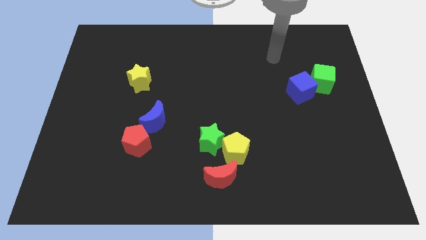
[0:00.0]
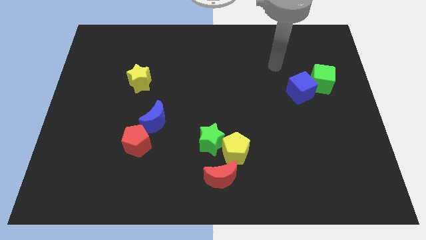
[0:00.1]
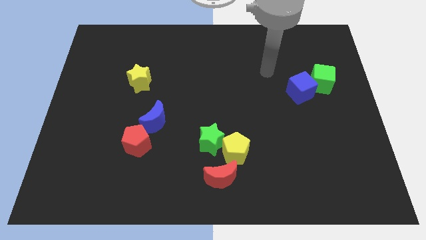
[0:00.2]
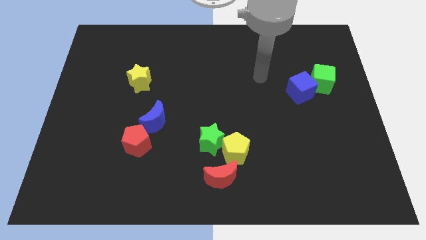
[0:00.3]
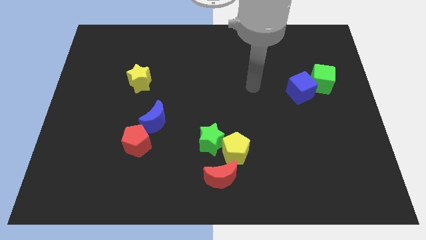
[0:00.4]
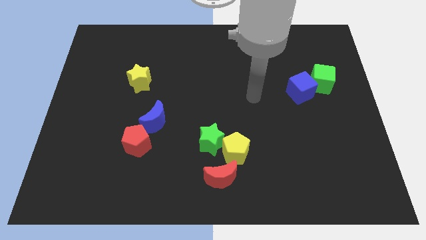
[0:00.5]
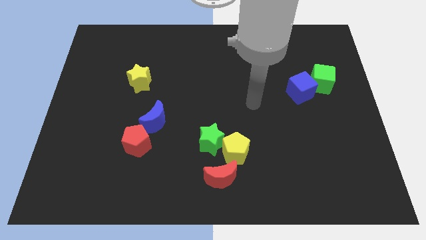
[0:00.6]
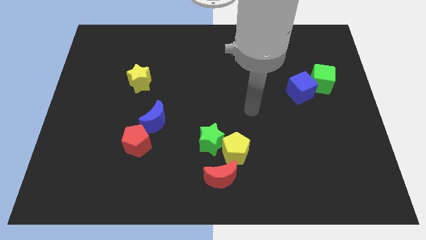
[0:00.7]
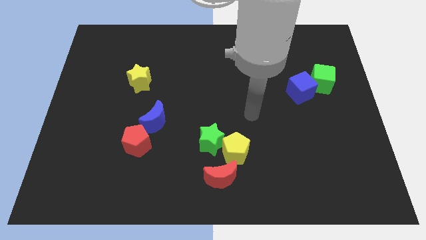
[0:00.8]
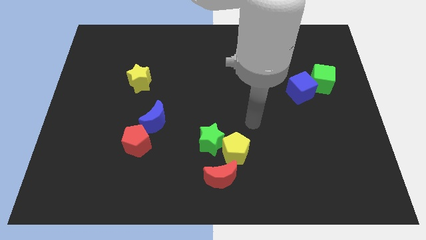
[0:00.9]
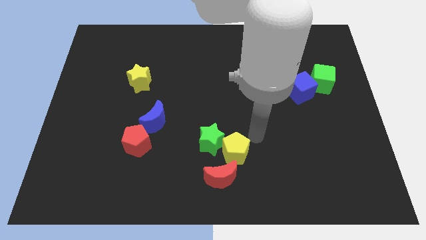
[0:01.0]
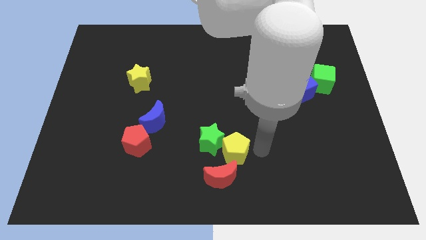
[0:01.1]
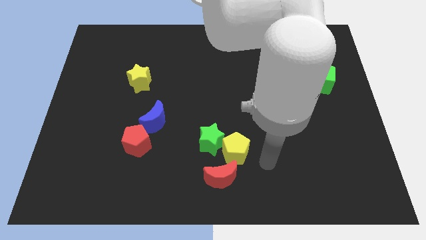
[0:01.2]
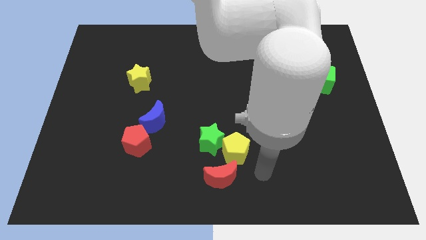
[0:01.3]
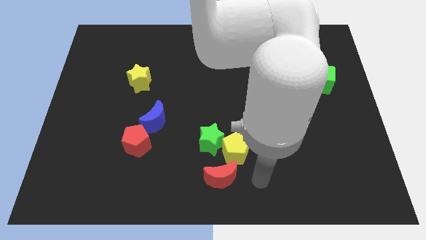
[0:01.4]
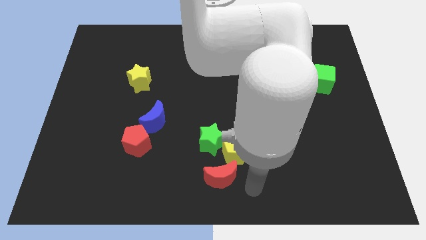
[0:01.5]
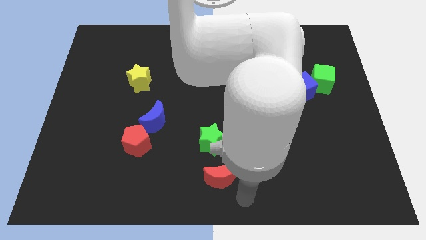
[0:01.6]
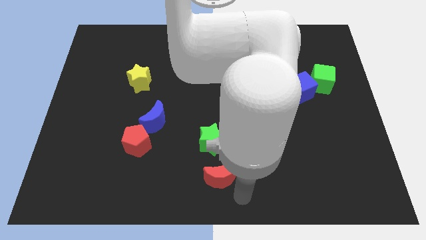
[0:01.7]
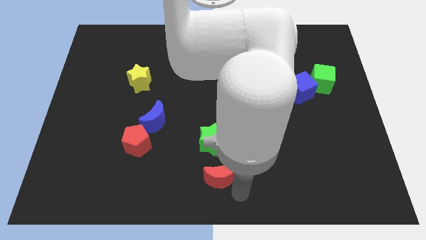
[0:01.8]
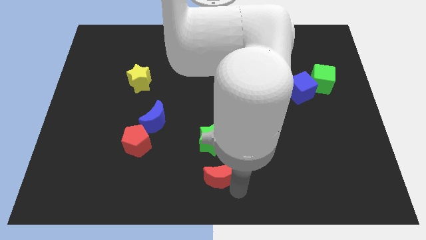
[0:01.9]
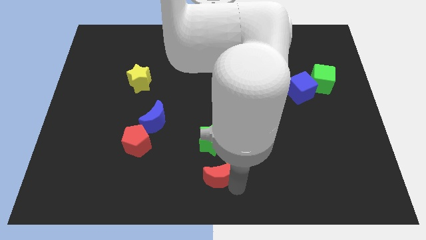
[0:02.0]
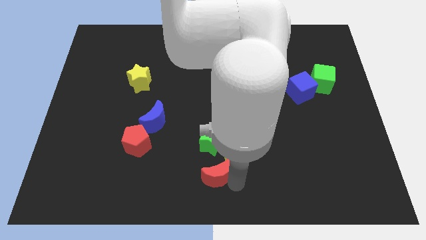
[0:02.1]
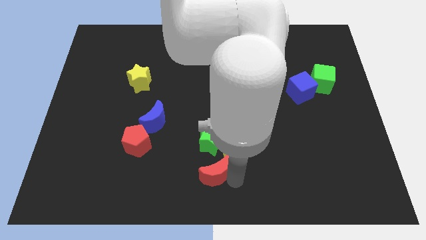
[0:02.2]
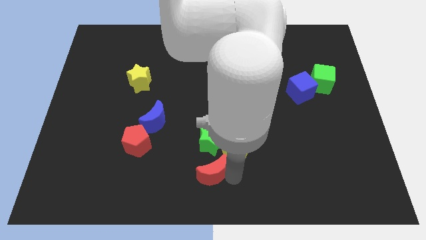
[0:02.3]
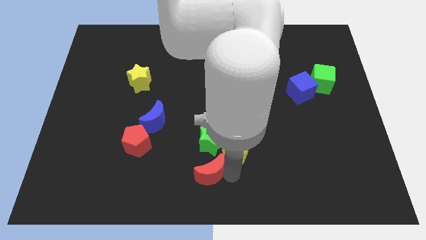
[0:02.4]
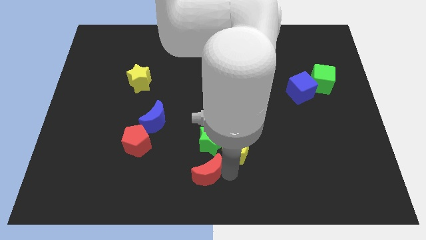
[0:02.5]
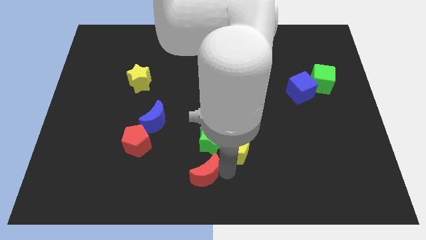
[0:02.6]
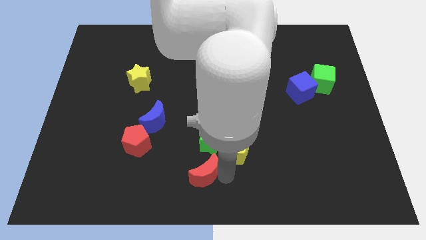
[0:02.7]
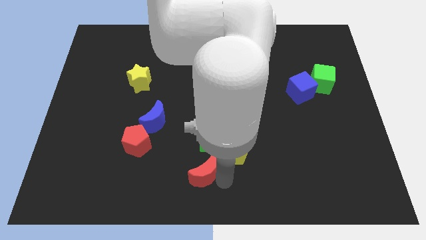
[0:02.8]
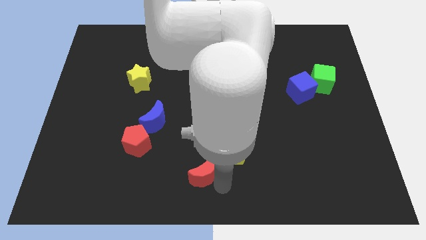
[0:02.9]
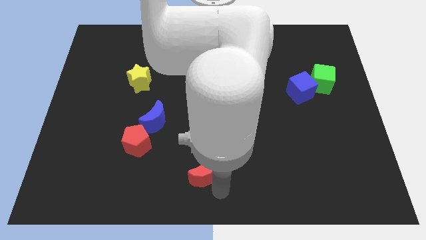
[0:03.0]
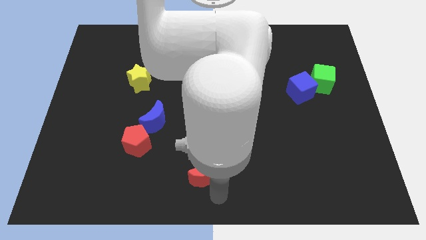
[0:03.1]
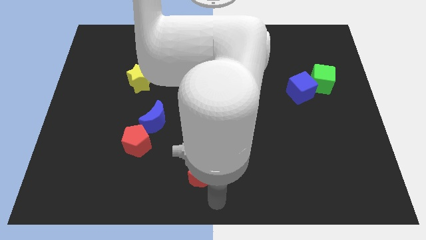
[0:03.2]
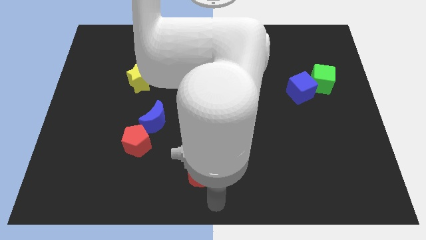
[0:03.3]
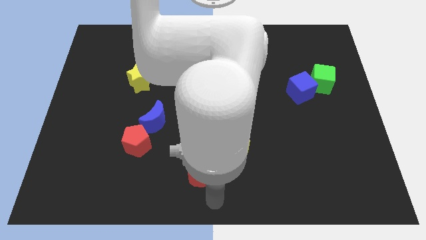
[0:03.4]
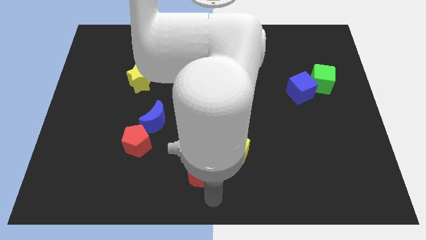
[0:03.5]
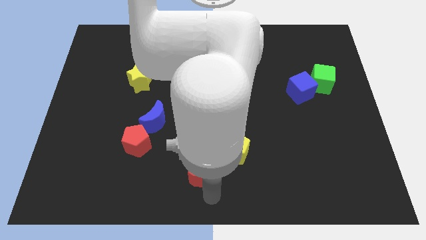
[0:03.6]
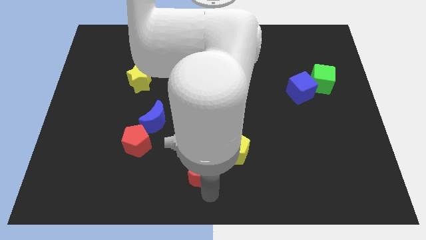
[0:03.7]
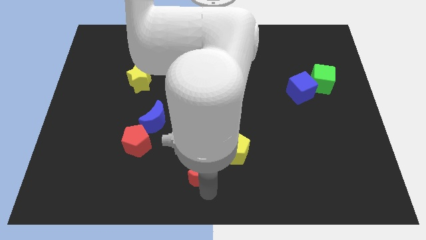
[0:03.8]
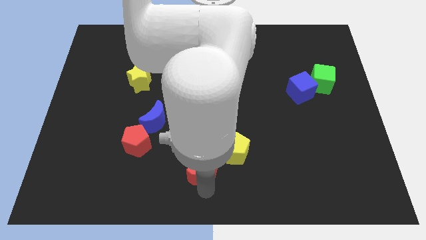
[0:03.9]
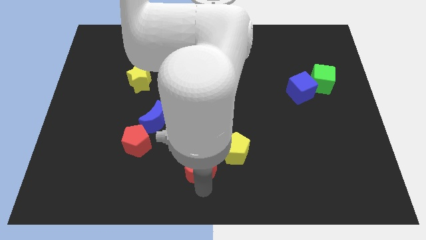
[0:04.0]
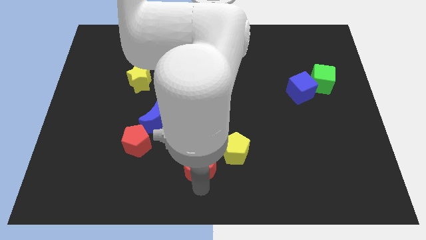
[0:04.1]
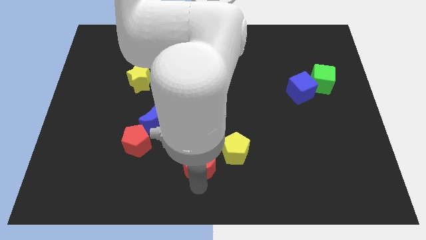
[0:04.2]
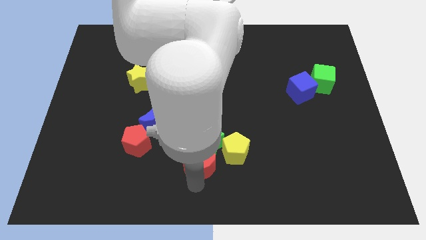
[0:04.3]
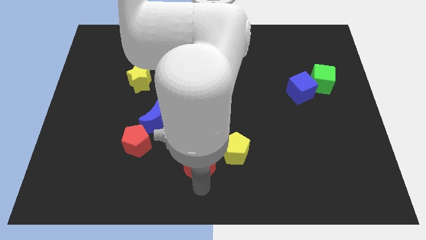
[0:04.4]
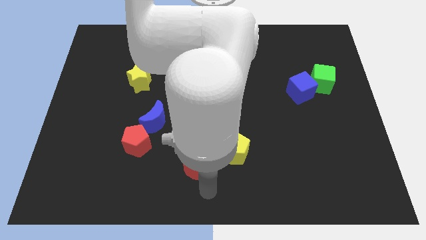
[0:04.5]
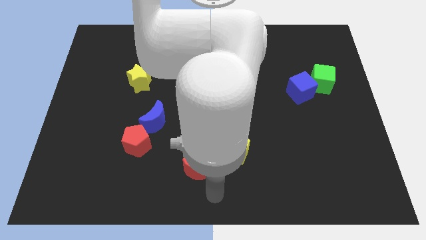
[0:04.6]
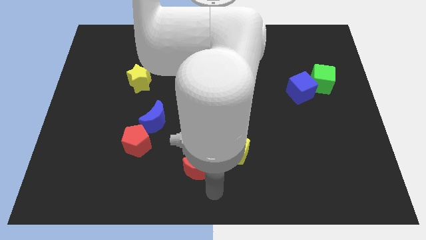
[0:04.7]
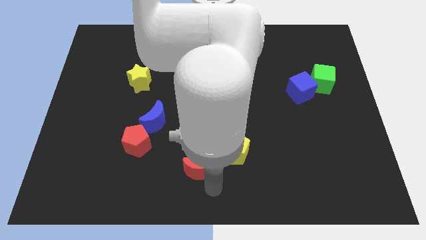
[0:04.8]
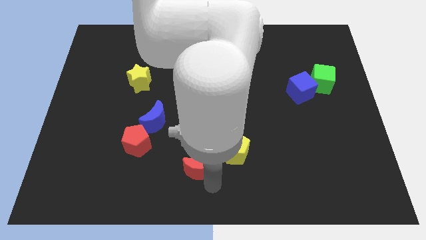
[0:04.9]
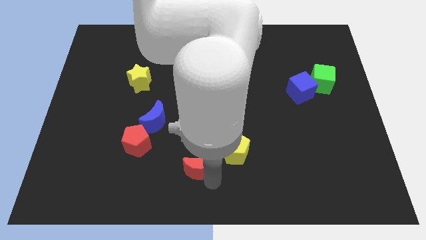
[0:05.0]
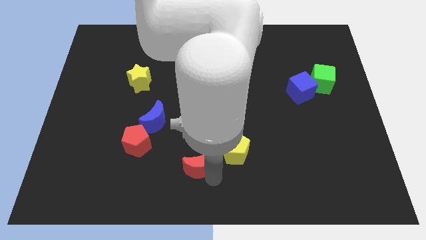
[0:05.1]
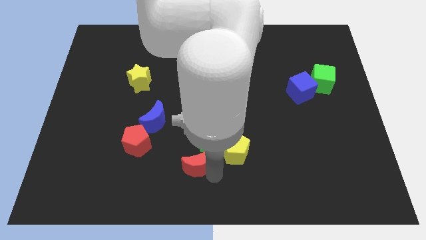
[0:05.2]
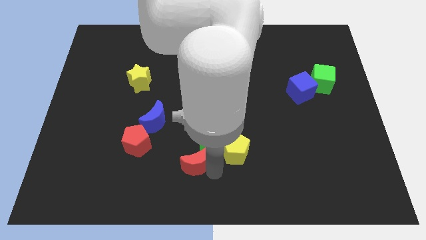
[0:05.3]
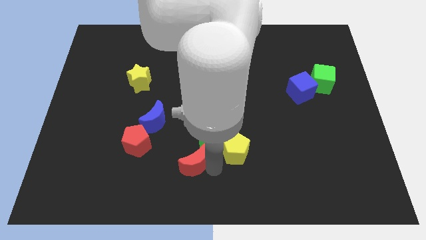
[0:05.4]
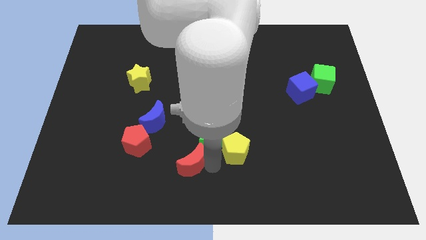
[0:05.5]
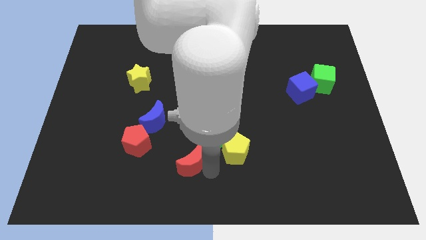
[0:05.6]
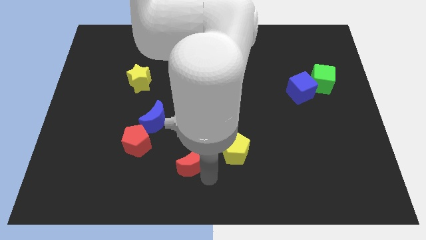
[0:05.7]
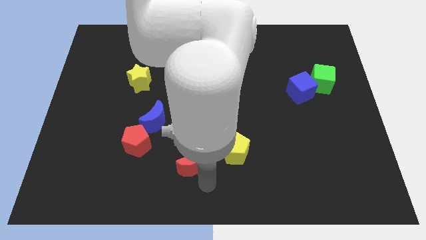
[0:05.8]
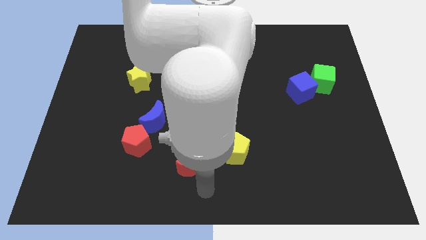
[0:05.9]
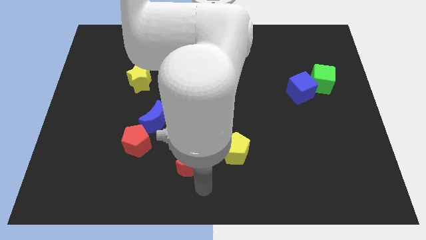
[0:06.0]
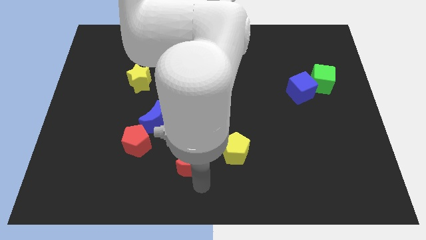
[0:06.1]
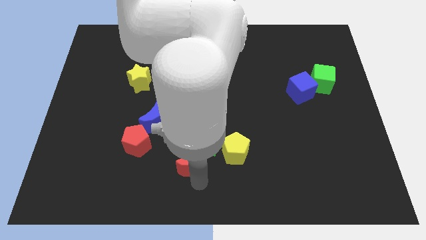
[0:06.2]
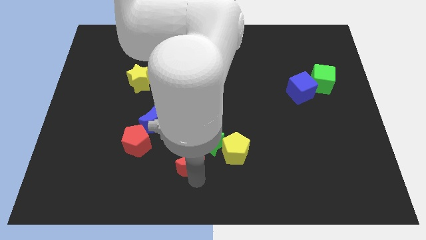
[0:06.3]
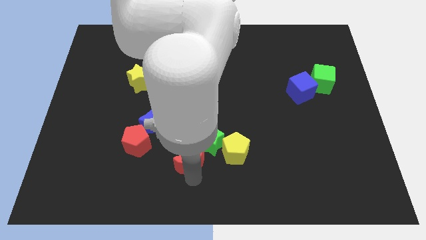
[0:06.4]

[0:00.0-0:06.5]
put the red moon right of the red pentagon

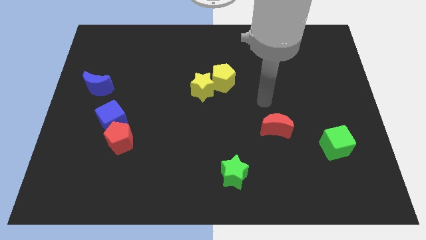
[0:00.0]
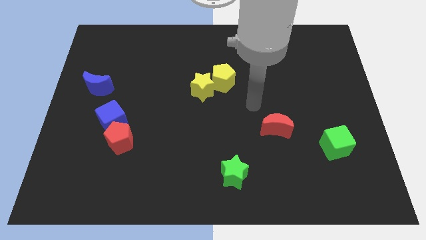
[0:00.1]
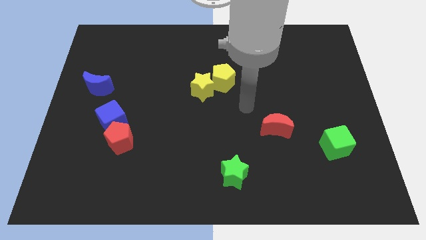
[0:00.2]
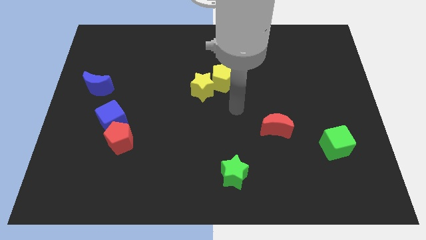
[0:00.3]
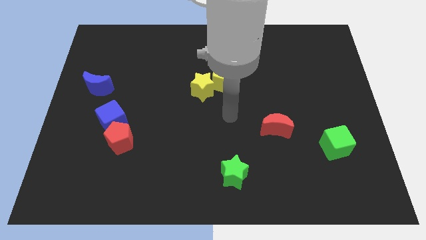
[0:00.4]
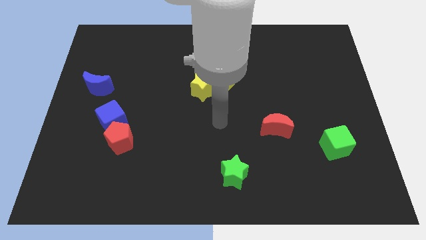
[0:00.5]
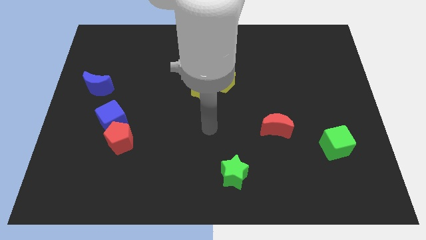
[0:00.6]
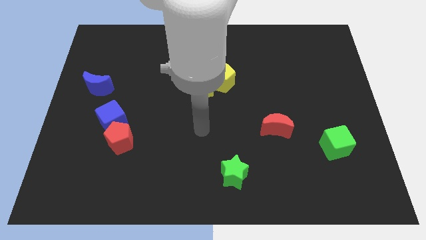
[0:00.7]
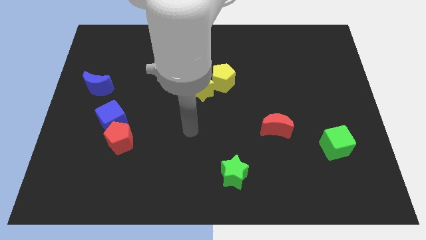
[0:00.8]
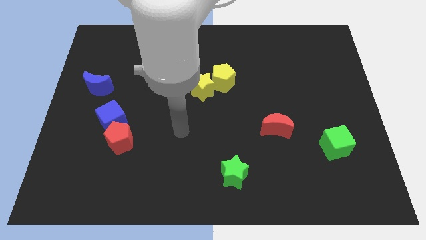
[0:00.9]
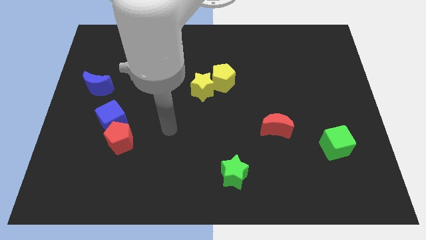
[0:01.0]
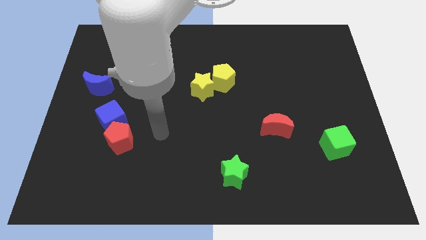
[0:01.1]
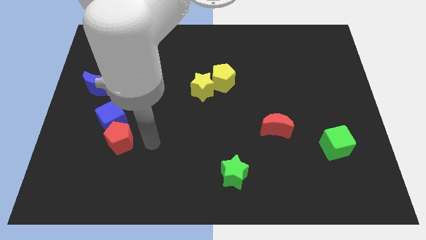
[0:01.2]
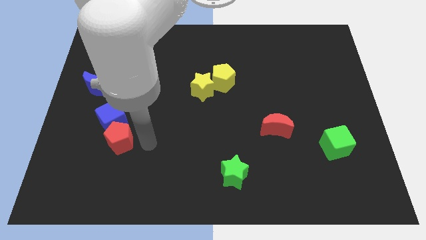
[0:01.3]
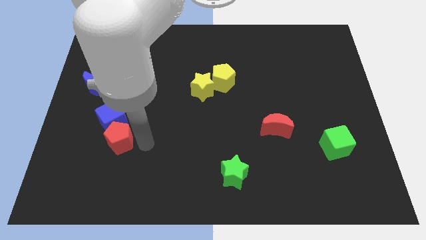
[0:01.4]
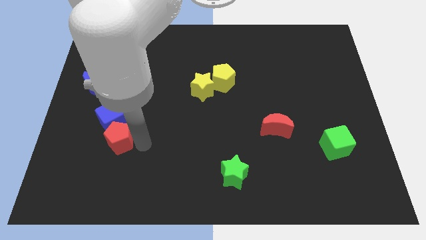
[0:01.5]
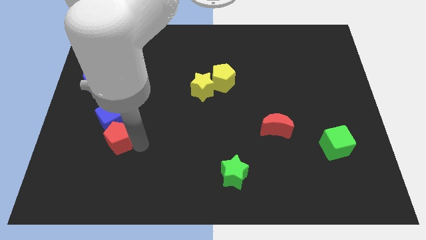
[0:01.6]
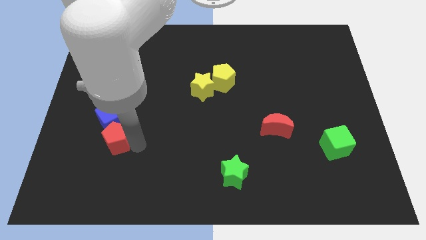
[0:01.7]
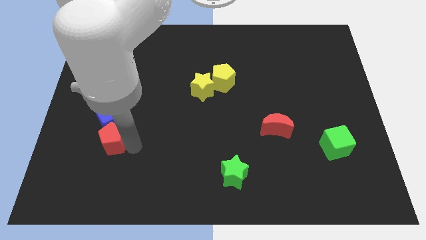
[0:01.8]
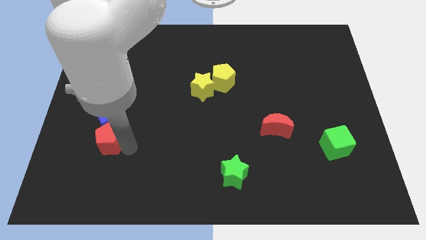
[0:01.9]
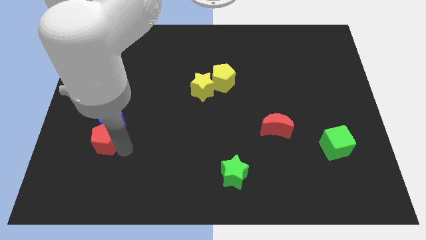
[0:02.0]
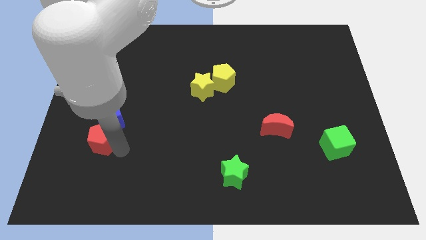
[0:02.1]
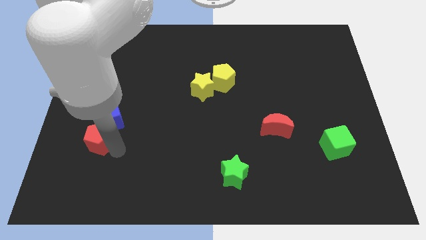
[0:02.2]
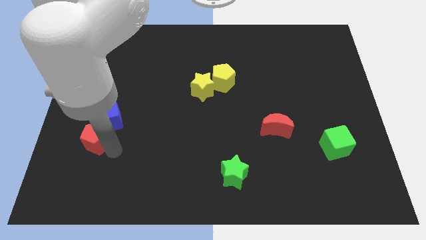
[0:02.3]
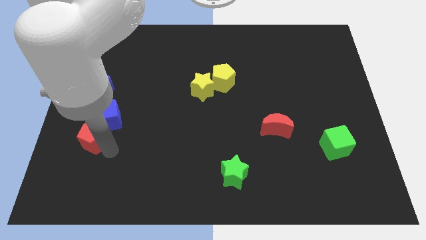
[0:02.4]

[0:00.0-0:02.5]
push the red pentagon to the bottom side of the blue moon
